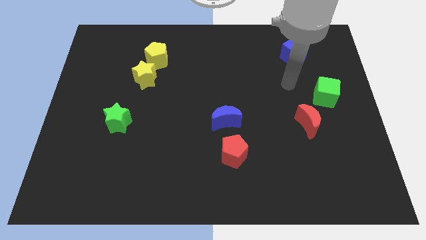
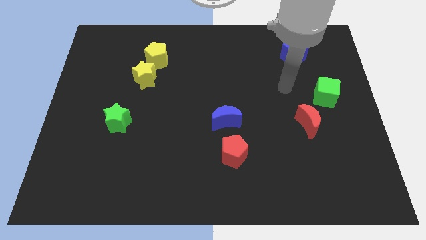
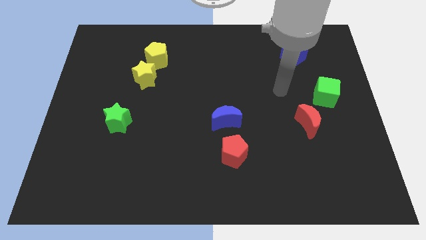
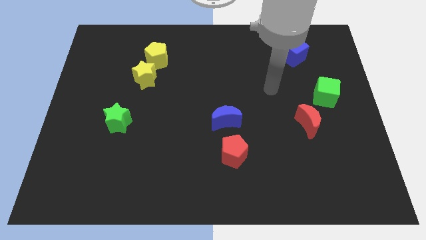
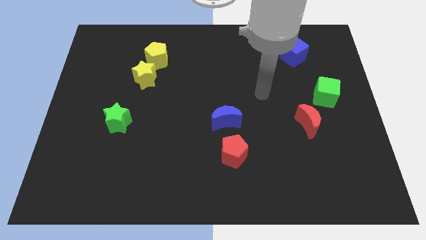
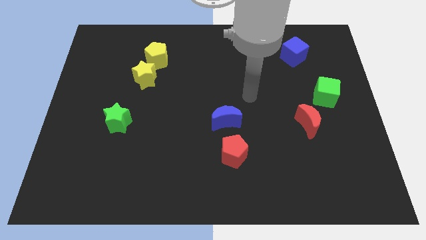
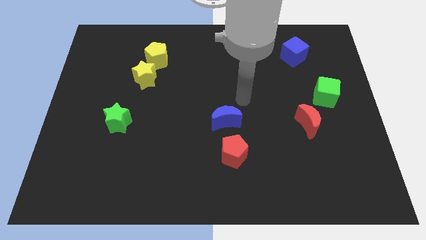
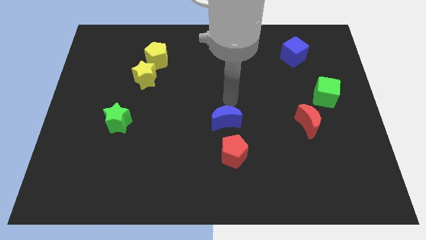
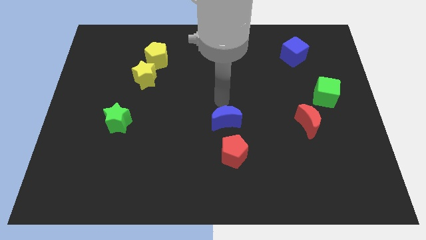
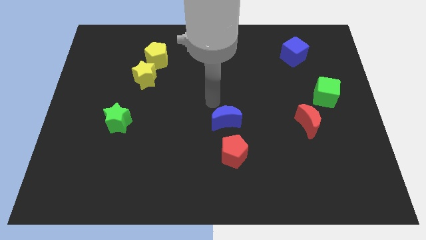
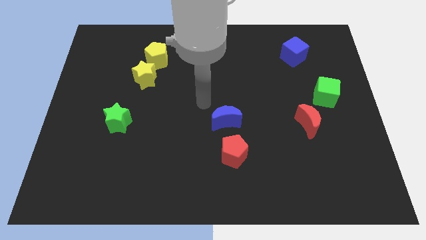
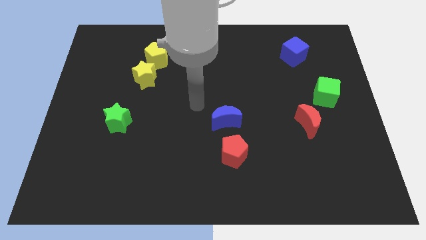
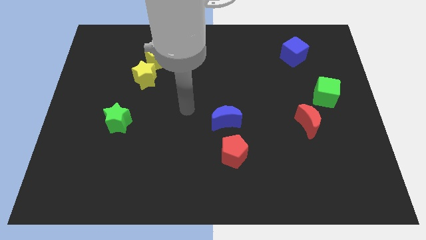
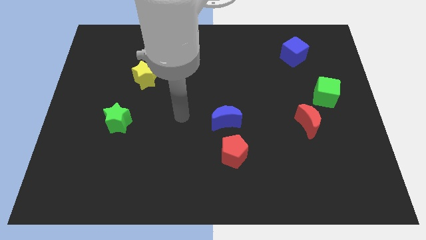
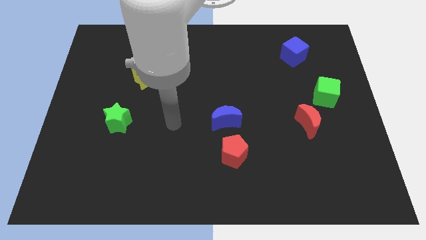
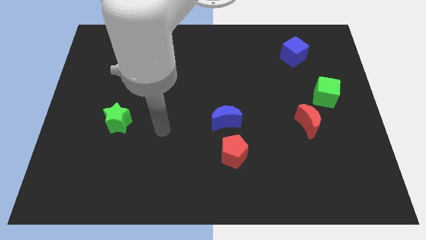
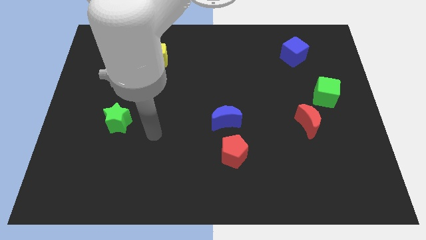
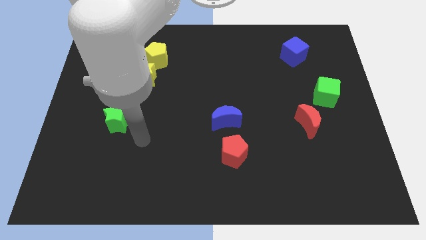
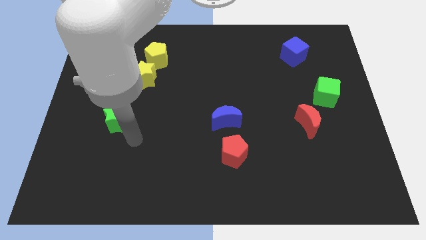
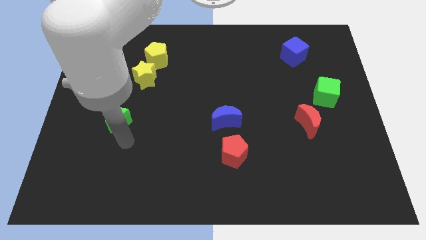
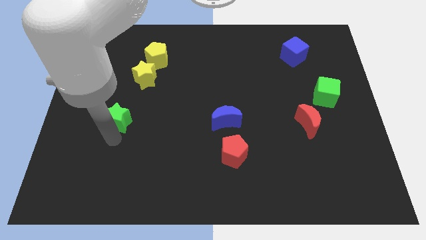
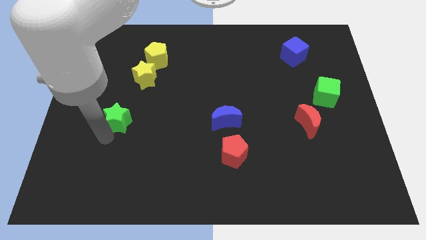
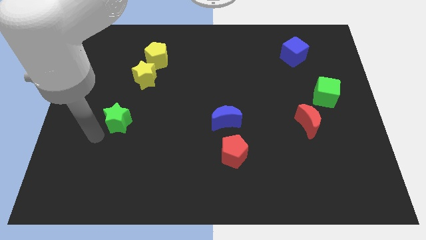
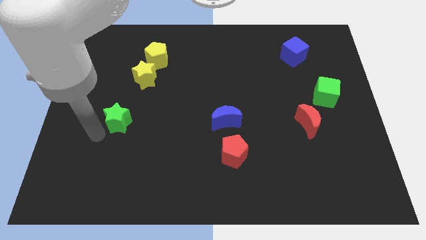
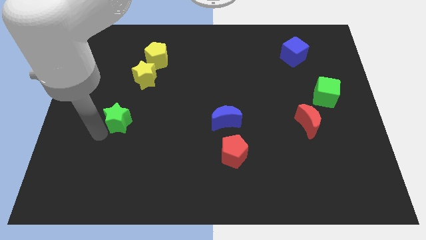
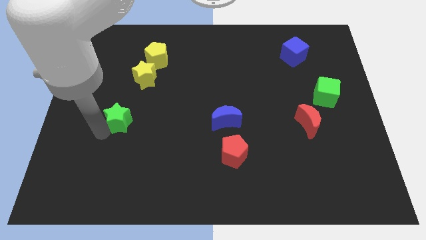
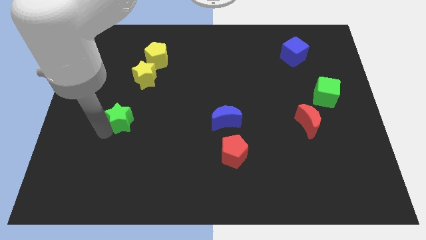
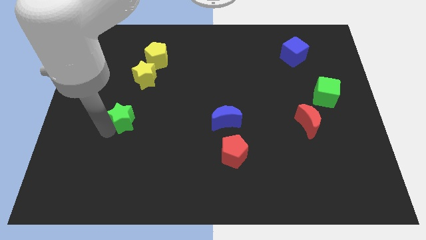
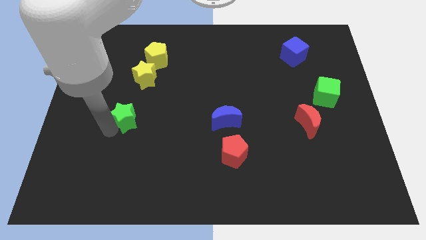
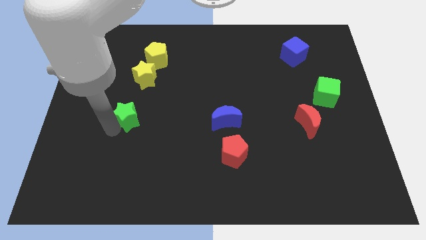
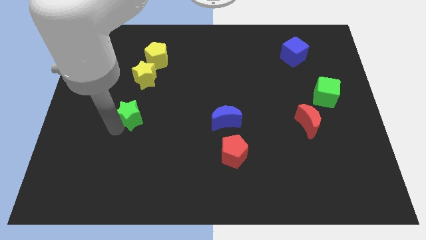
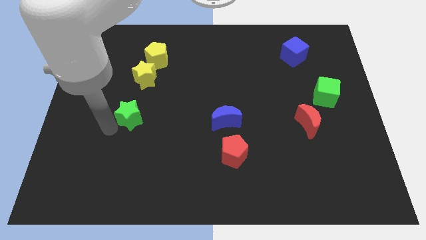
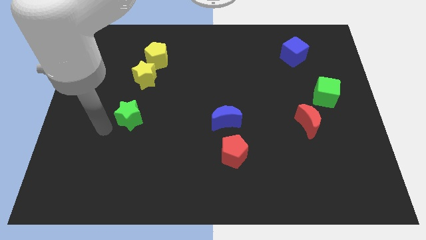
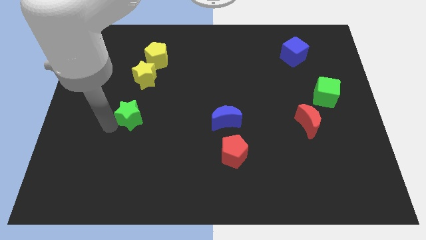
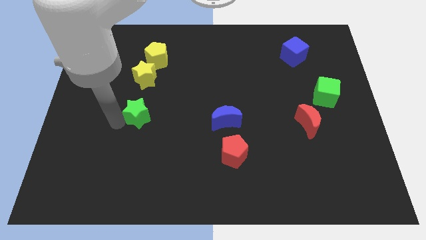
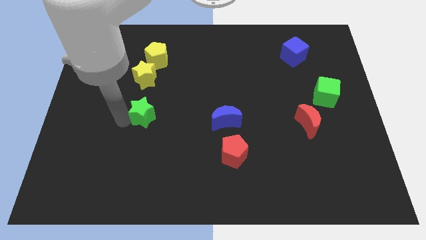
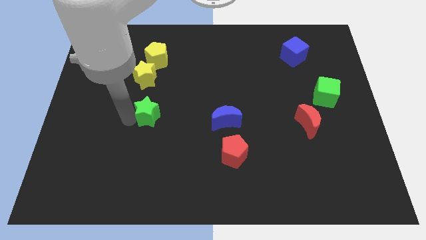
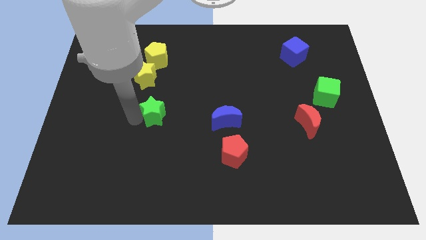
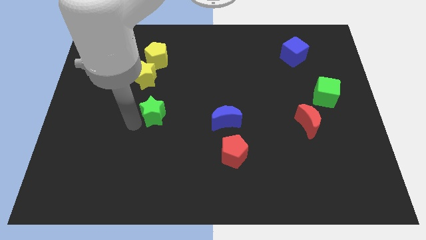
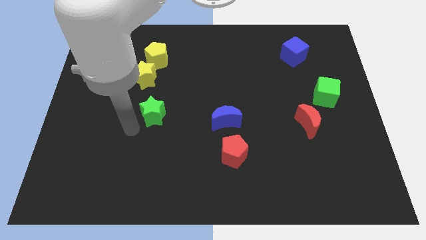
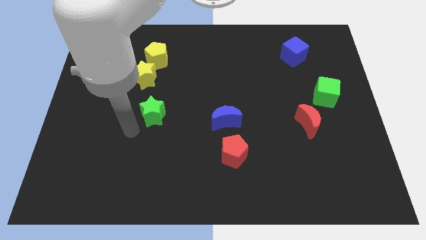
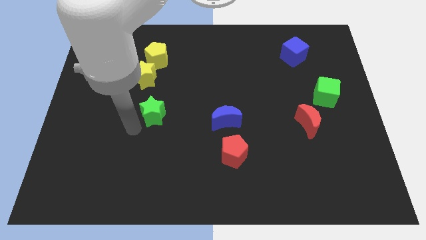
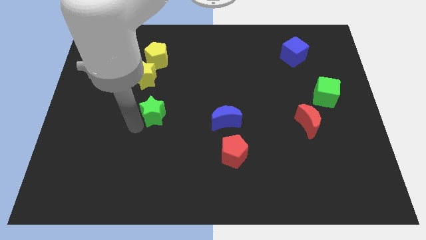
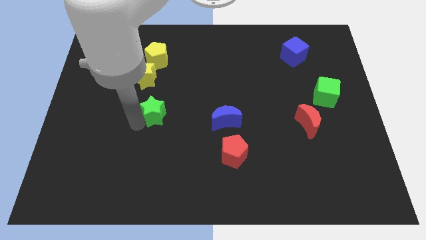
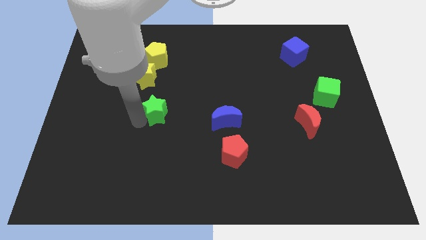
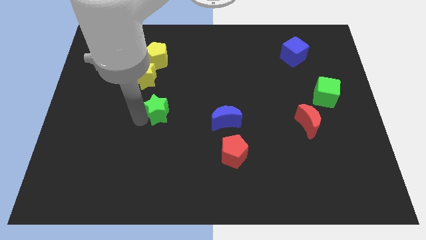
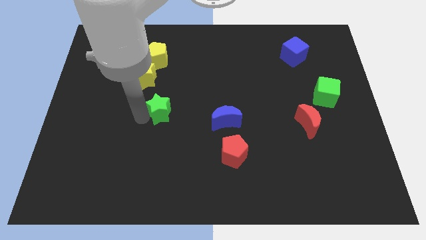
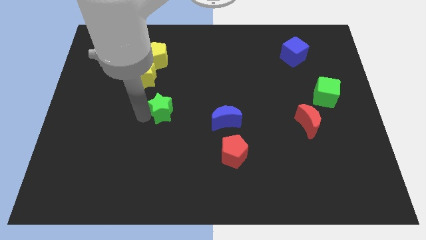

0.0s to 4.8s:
push the green star to the center

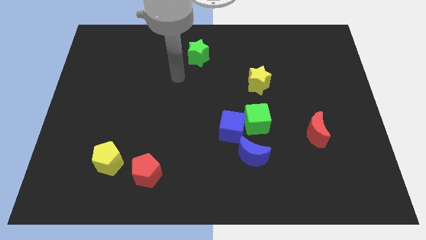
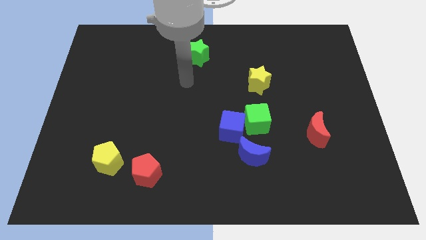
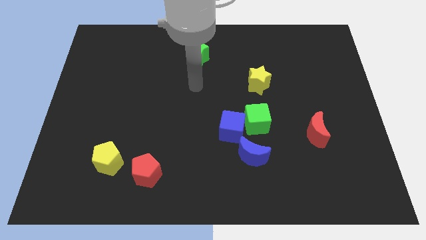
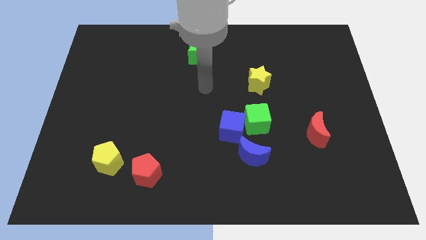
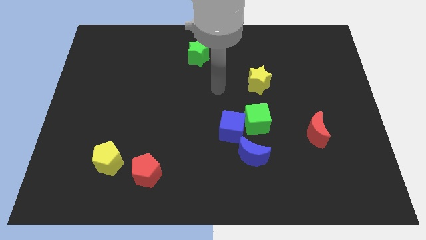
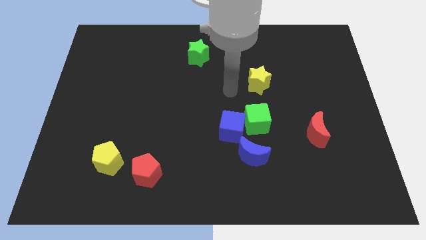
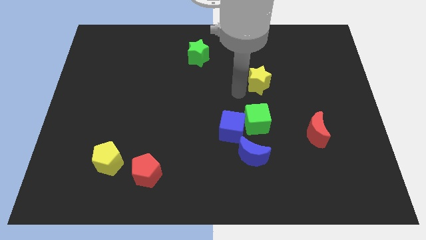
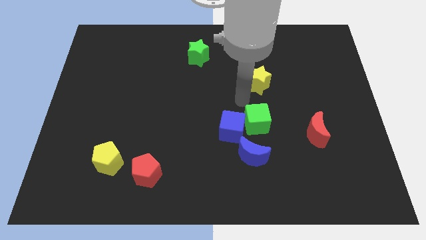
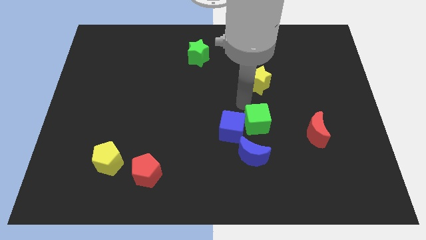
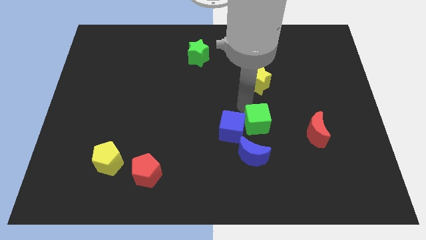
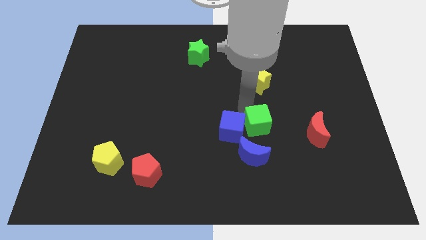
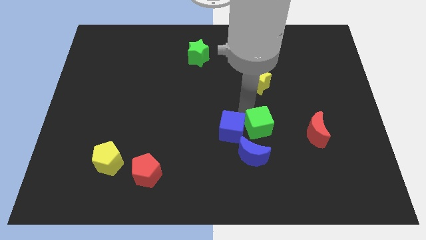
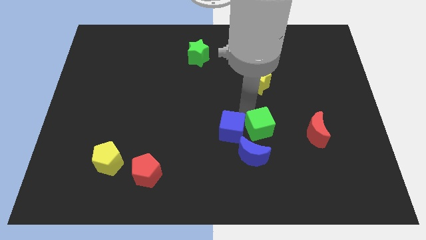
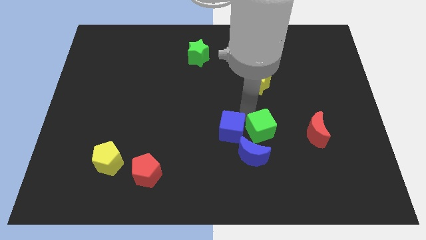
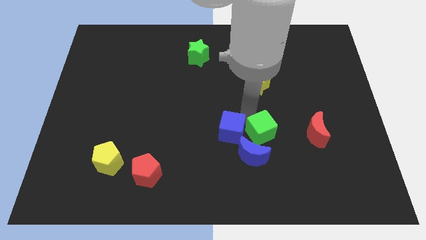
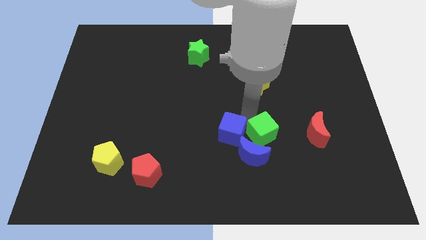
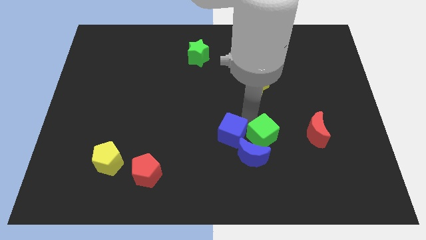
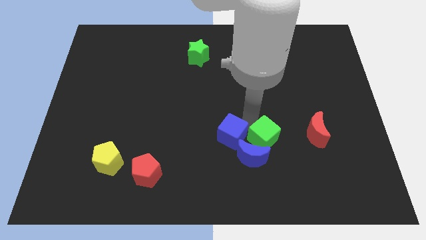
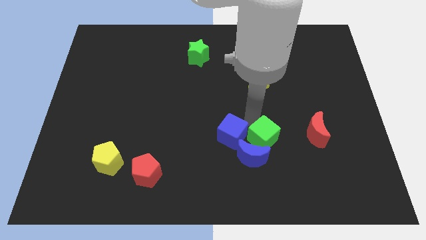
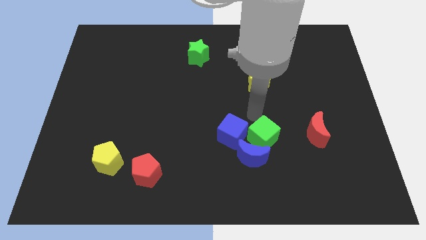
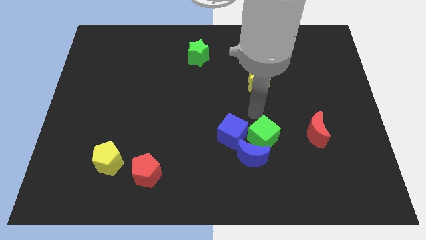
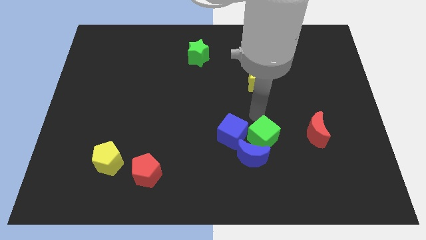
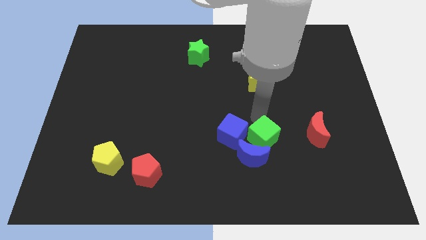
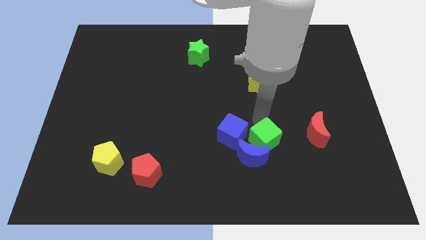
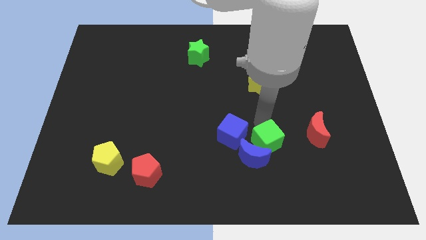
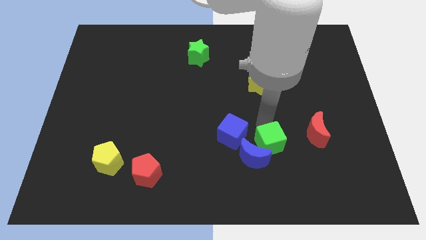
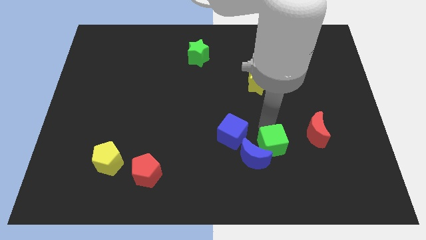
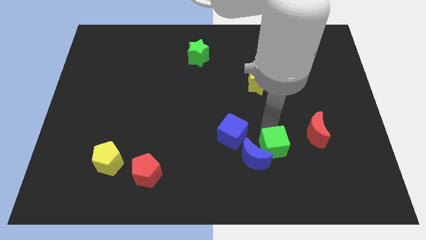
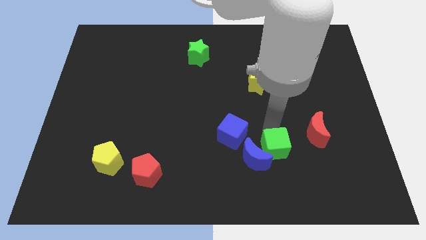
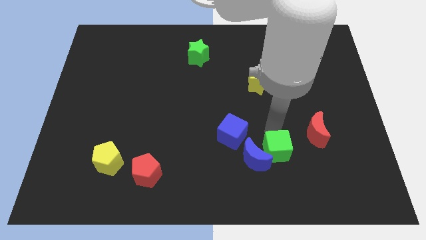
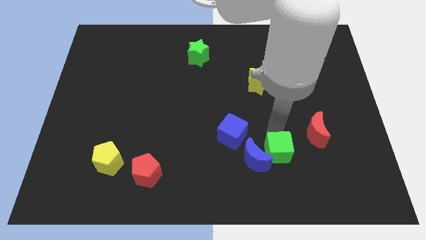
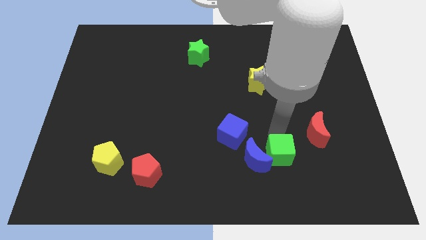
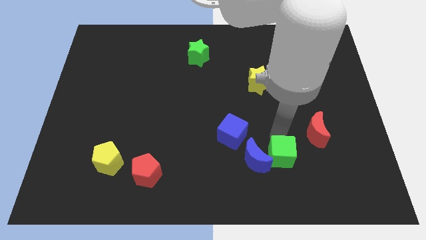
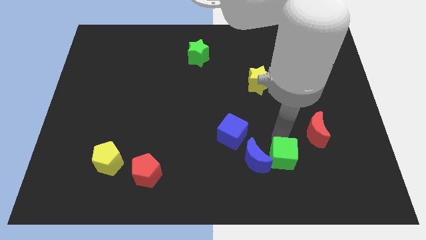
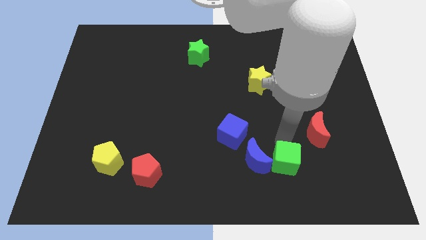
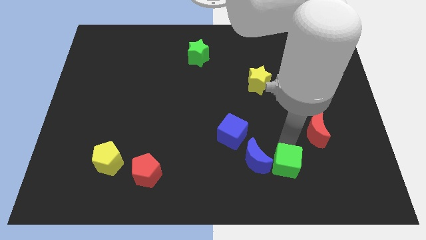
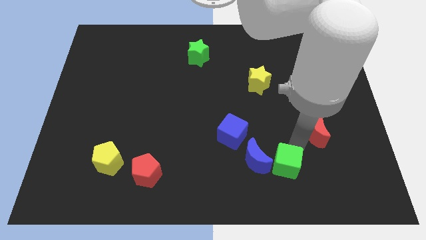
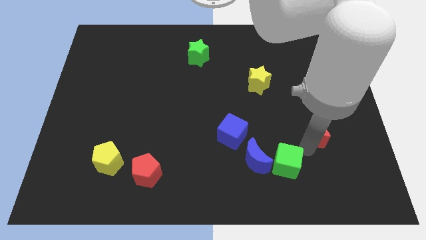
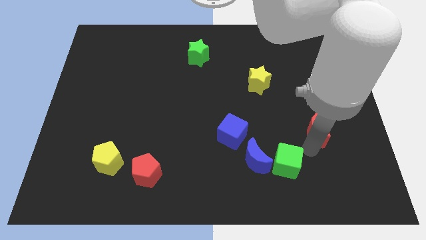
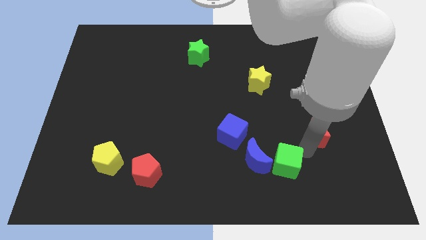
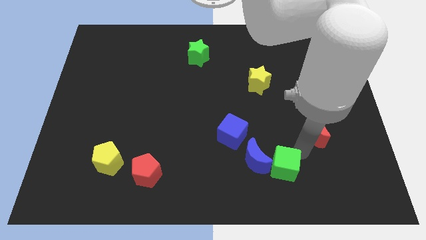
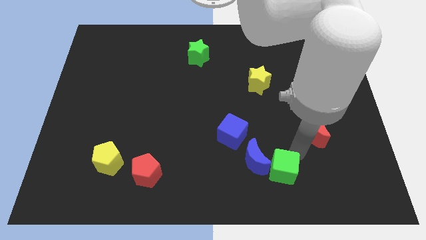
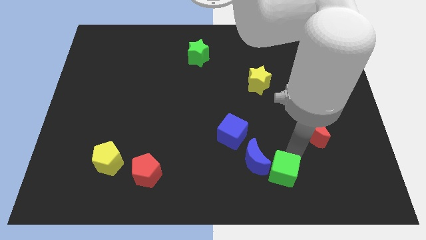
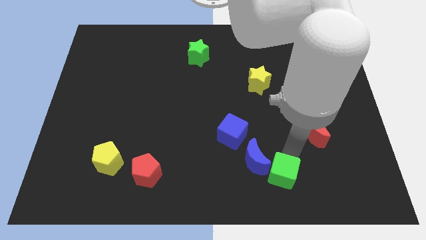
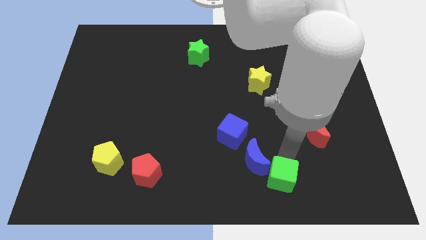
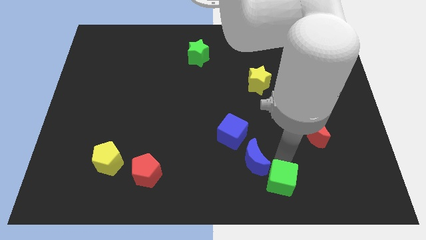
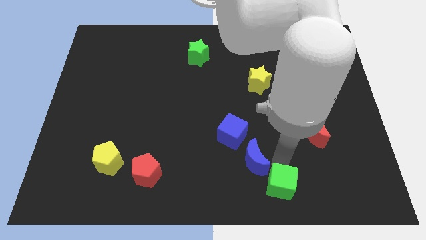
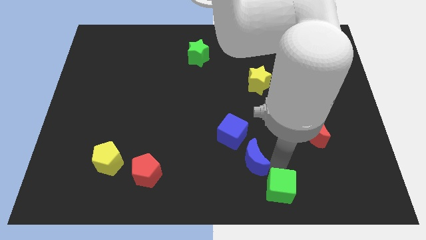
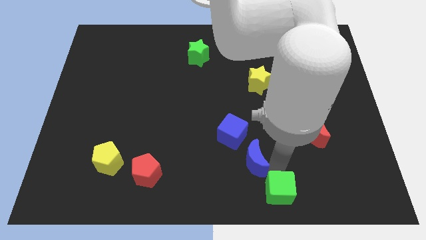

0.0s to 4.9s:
put the green cube to the bottom side
